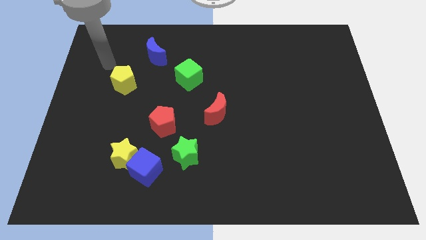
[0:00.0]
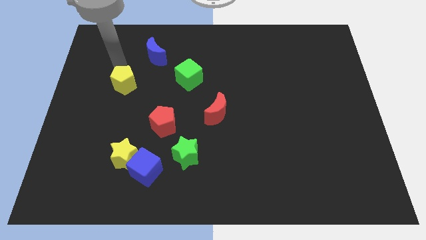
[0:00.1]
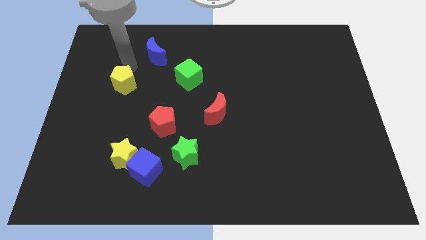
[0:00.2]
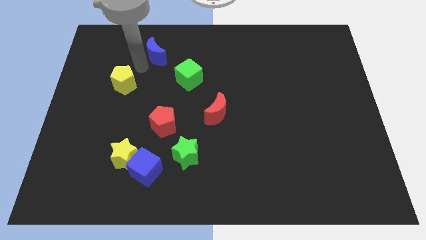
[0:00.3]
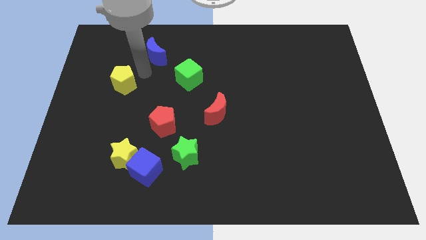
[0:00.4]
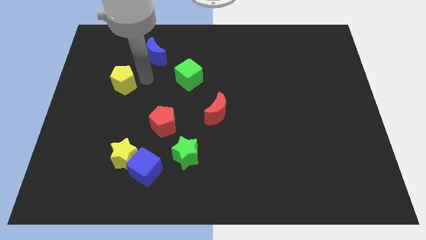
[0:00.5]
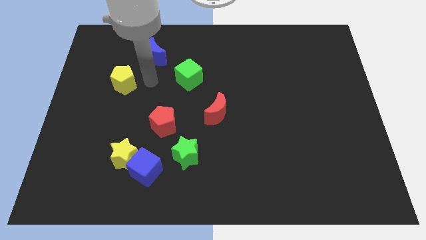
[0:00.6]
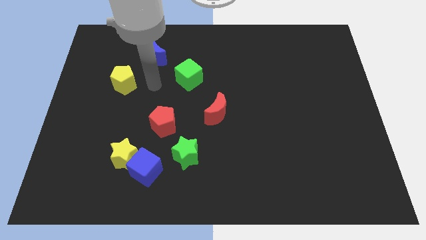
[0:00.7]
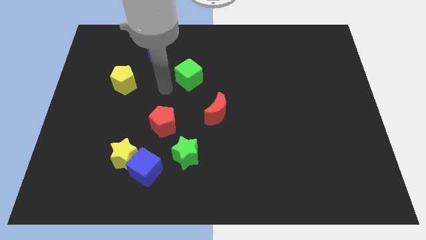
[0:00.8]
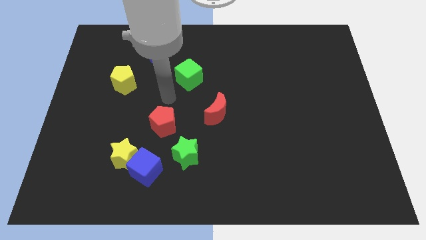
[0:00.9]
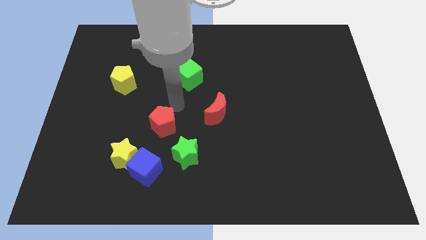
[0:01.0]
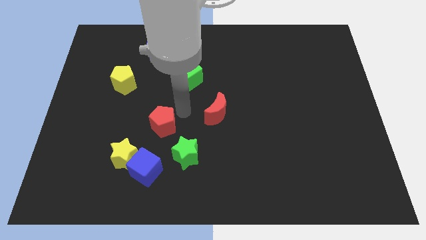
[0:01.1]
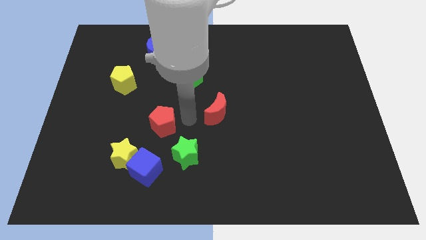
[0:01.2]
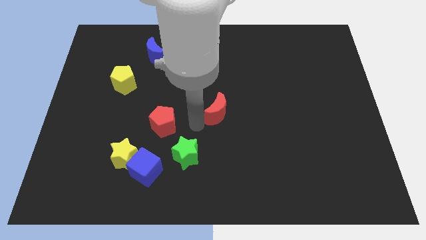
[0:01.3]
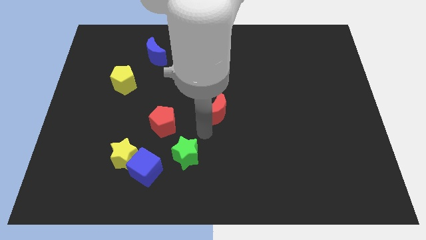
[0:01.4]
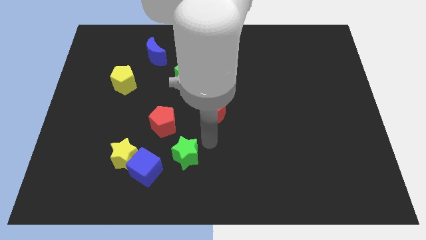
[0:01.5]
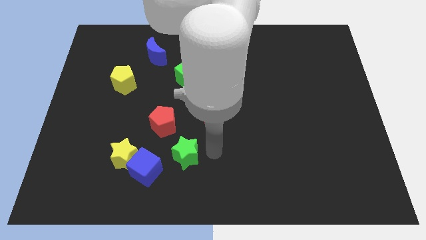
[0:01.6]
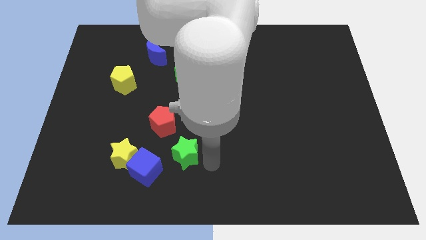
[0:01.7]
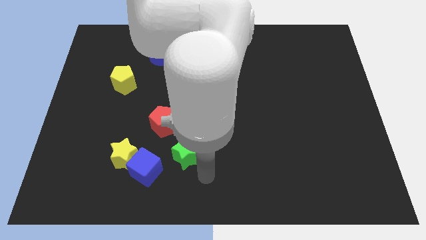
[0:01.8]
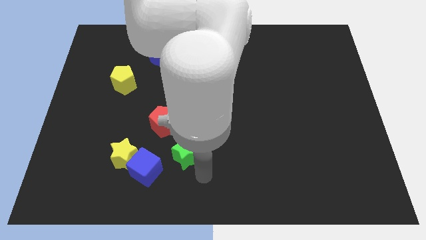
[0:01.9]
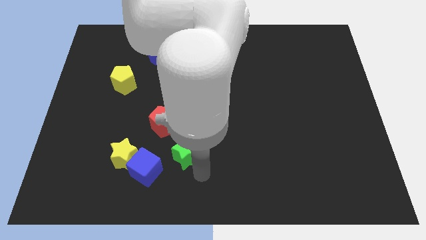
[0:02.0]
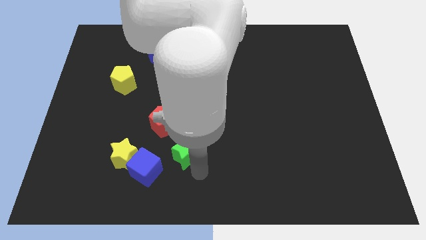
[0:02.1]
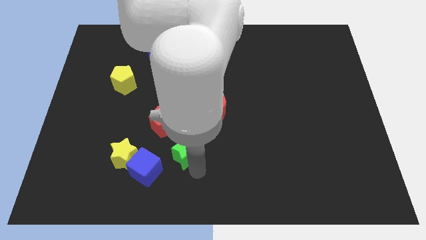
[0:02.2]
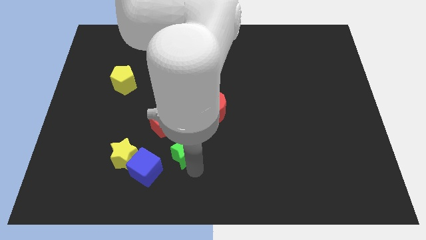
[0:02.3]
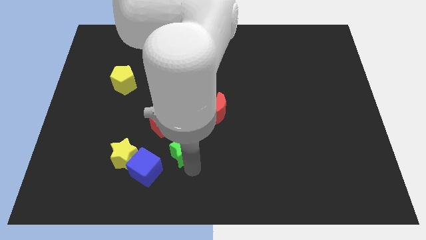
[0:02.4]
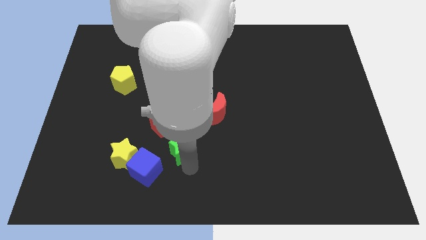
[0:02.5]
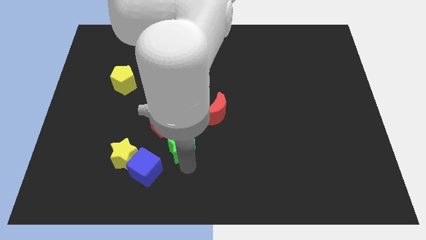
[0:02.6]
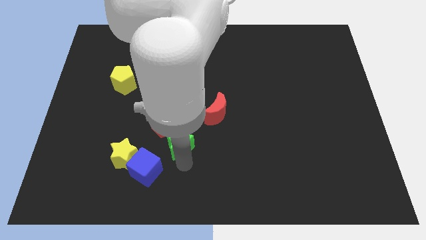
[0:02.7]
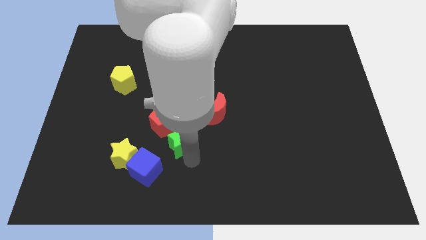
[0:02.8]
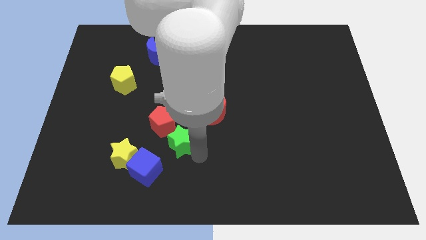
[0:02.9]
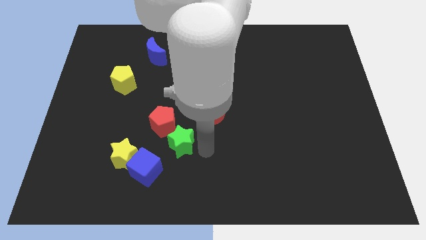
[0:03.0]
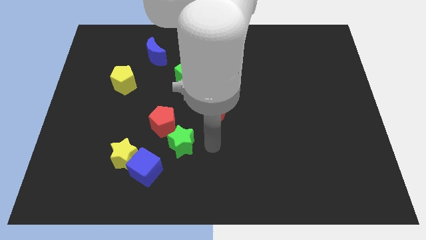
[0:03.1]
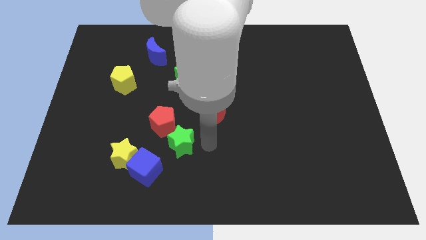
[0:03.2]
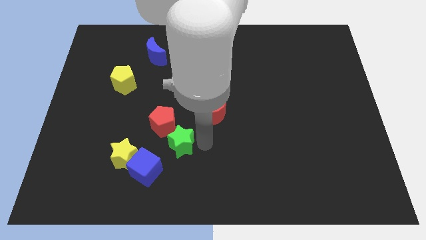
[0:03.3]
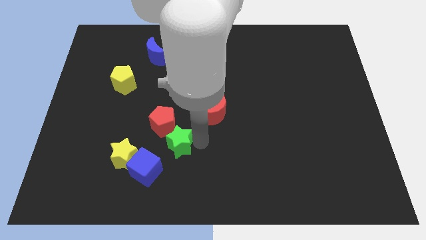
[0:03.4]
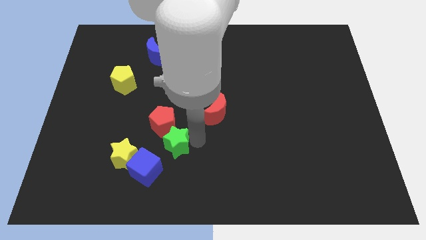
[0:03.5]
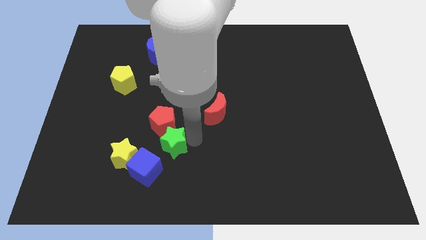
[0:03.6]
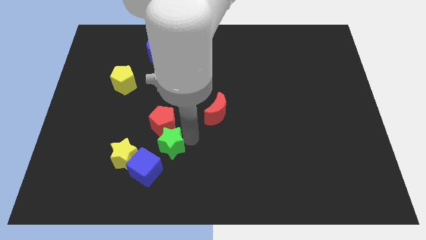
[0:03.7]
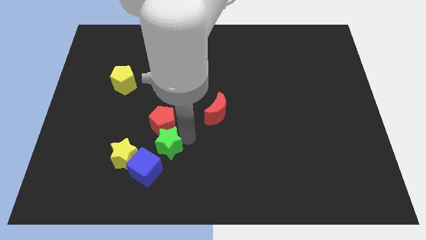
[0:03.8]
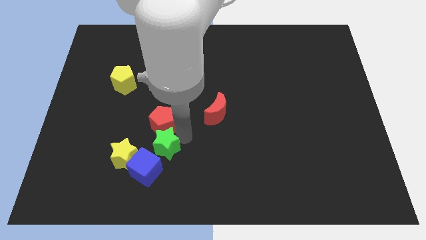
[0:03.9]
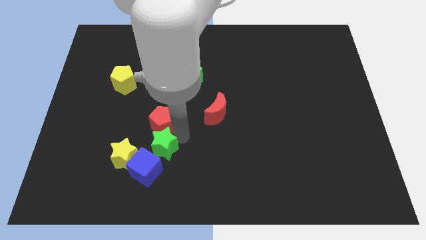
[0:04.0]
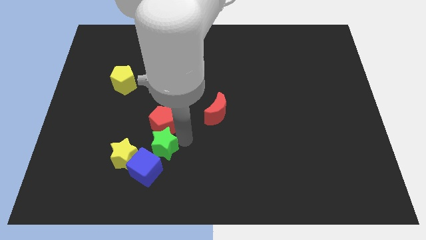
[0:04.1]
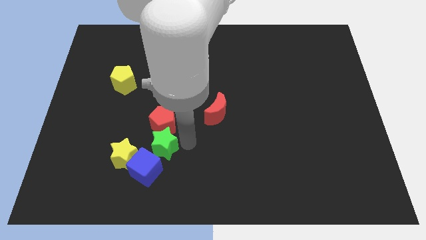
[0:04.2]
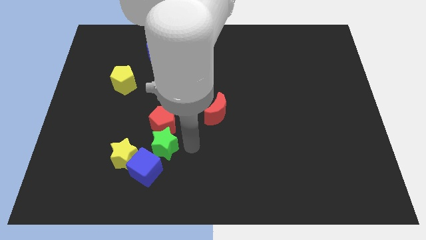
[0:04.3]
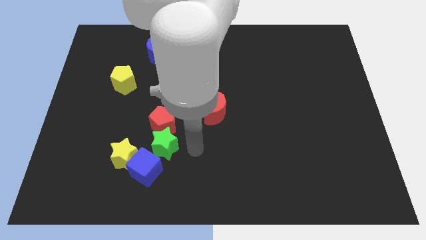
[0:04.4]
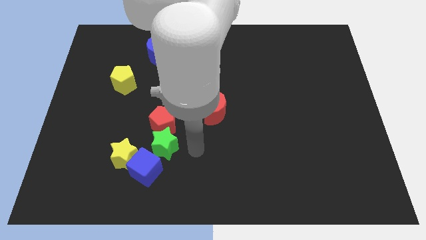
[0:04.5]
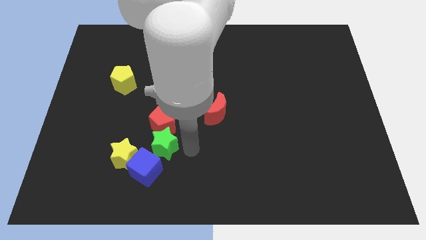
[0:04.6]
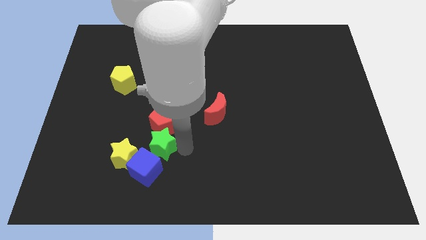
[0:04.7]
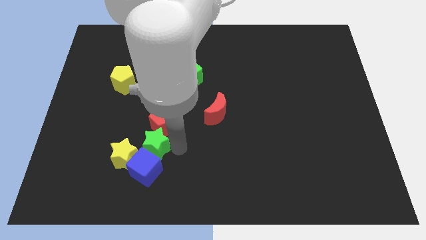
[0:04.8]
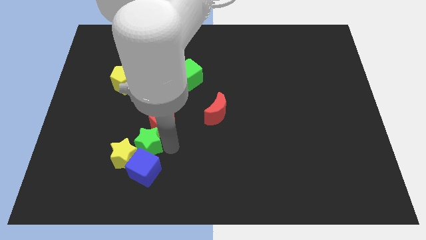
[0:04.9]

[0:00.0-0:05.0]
put the green star to the top left side of the blue cube

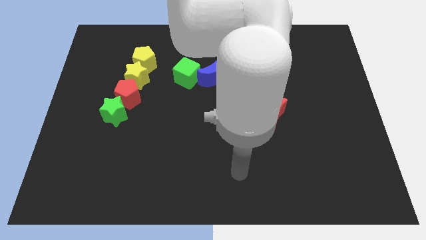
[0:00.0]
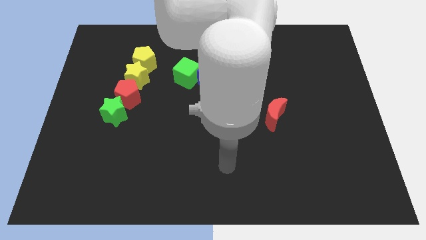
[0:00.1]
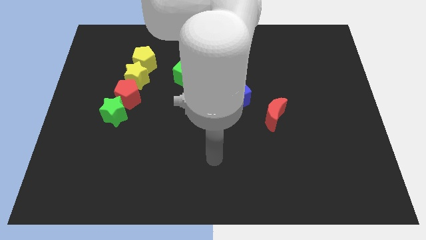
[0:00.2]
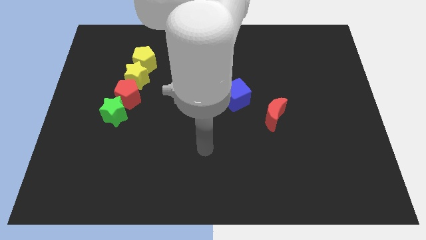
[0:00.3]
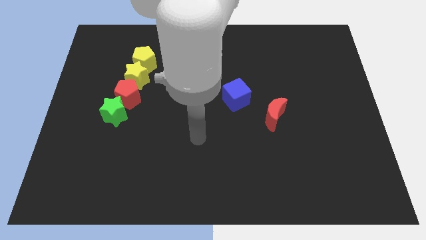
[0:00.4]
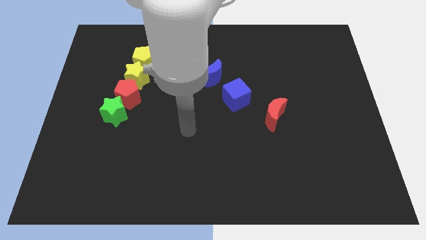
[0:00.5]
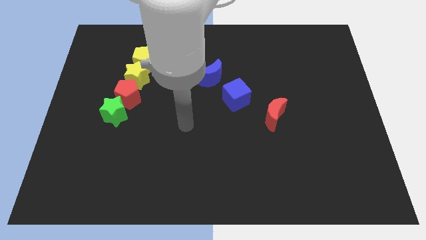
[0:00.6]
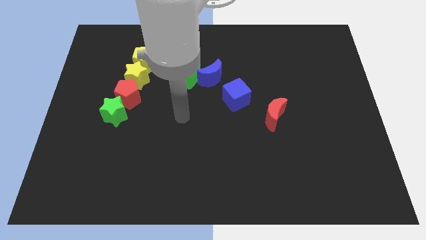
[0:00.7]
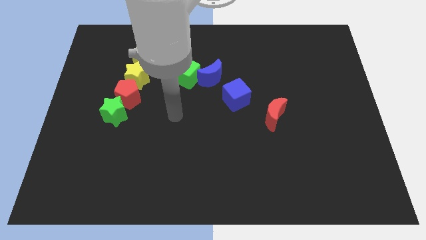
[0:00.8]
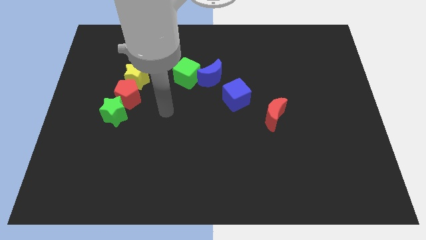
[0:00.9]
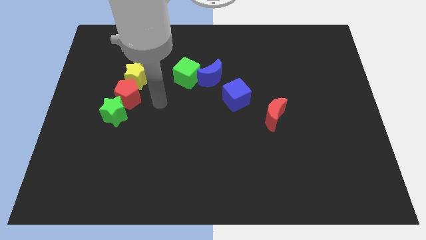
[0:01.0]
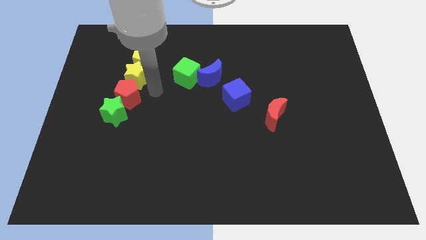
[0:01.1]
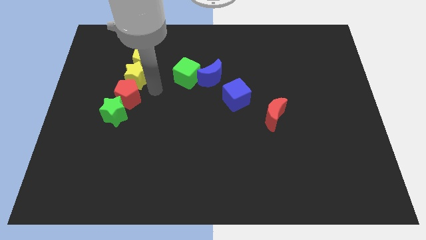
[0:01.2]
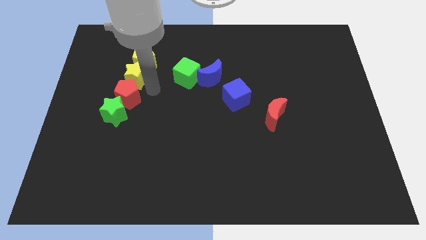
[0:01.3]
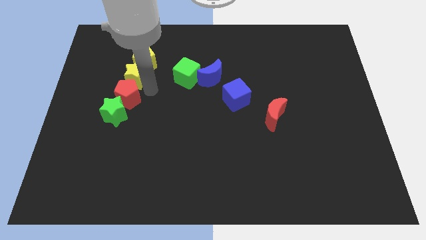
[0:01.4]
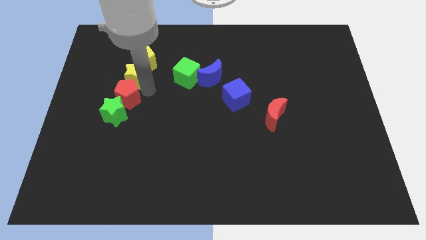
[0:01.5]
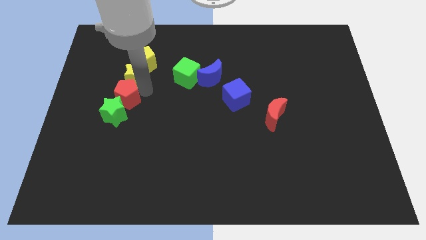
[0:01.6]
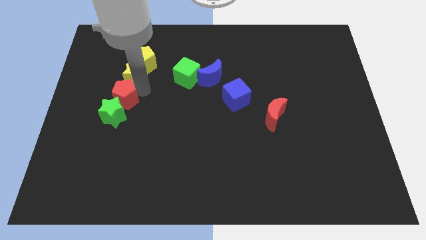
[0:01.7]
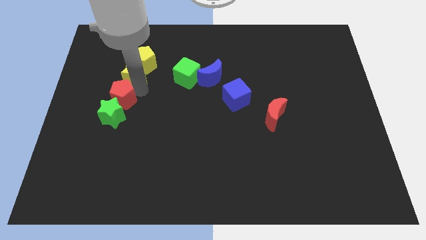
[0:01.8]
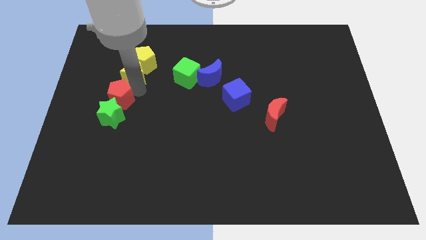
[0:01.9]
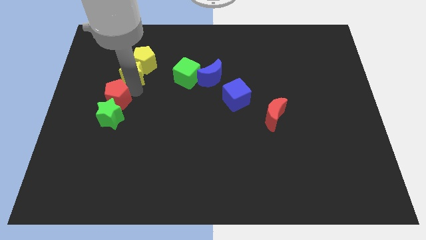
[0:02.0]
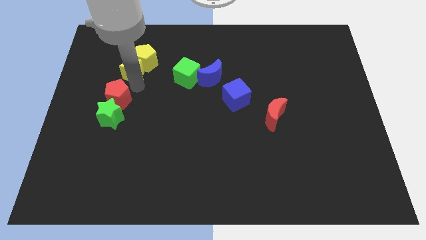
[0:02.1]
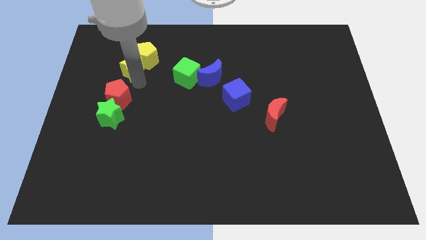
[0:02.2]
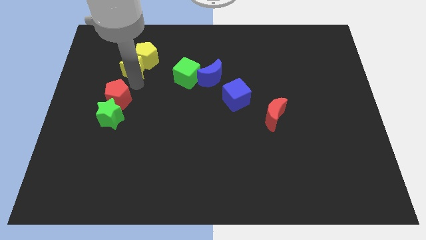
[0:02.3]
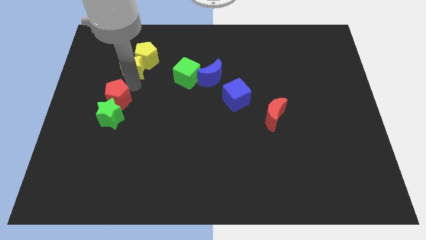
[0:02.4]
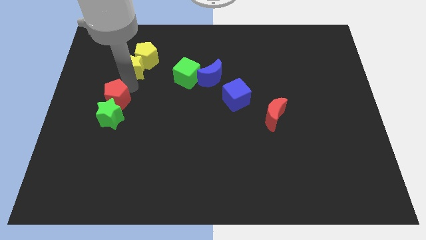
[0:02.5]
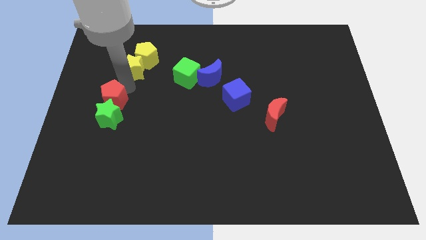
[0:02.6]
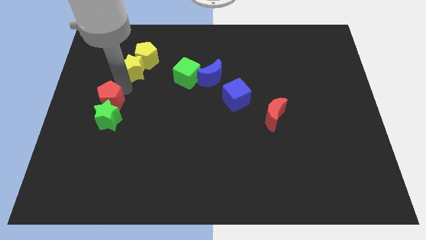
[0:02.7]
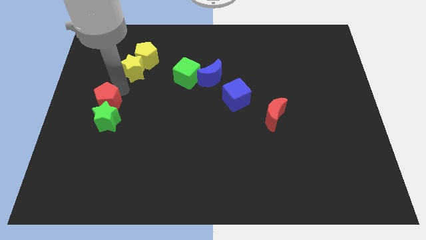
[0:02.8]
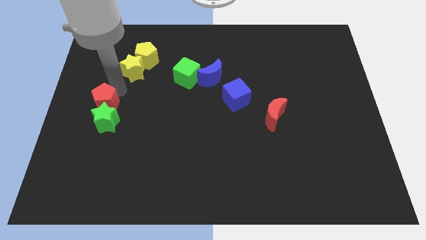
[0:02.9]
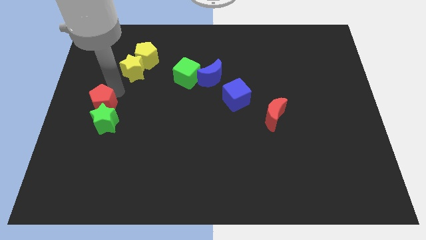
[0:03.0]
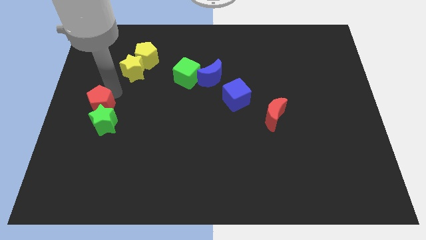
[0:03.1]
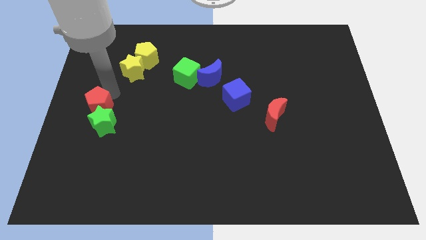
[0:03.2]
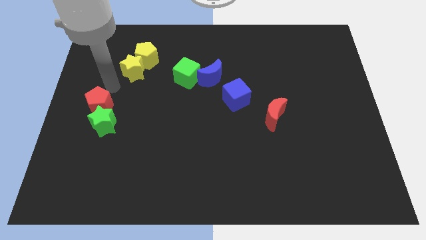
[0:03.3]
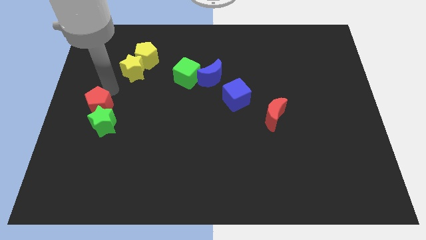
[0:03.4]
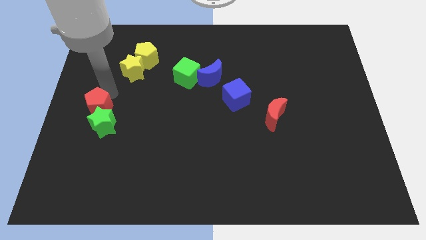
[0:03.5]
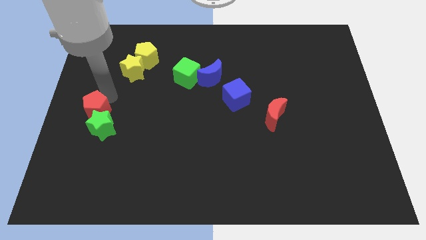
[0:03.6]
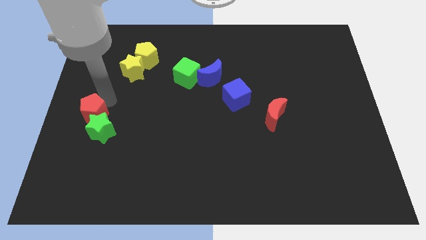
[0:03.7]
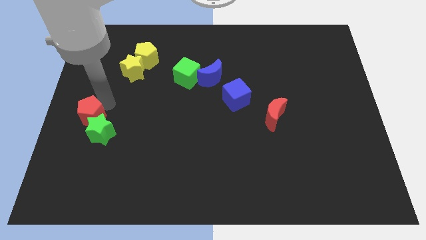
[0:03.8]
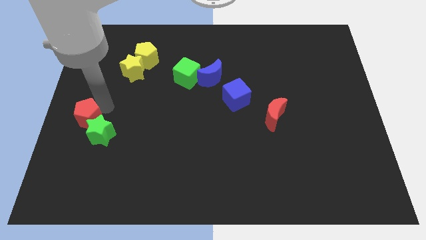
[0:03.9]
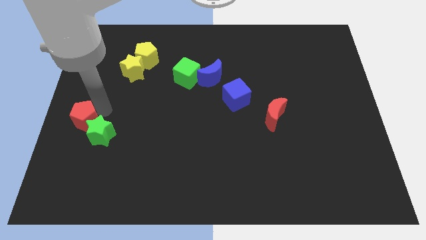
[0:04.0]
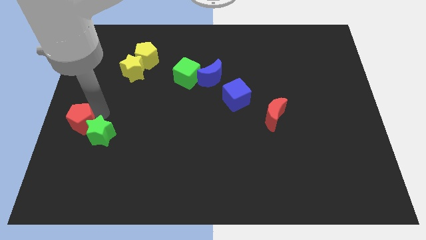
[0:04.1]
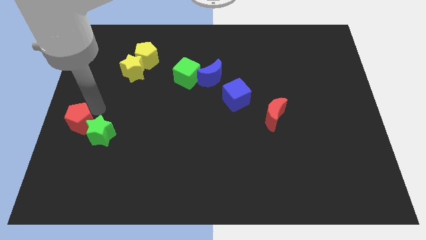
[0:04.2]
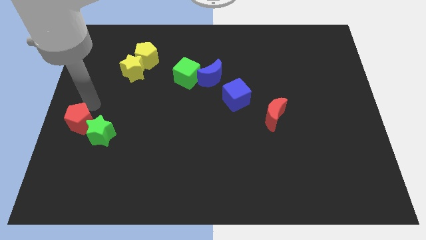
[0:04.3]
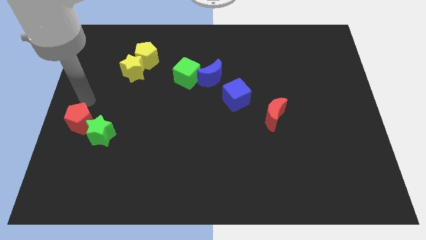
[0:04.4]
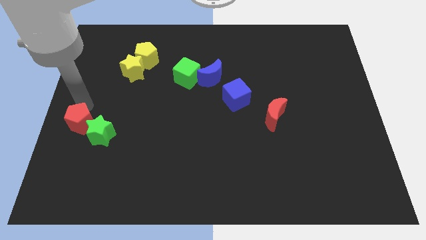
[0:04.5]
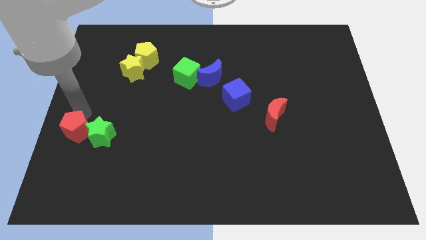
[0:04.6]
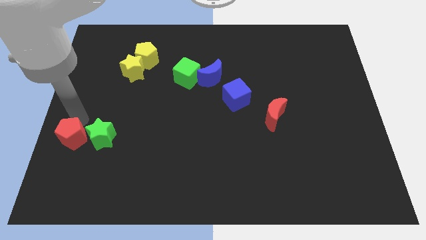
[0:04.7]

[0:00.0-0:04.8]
slide the red pentagon diagonally down and to the left of the green star
